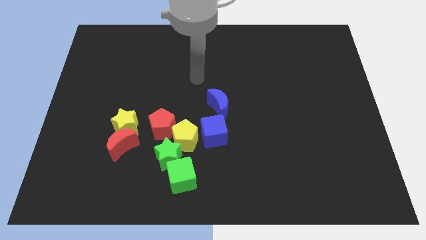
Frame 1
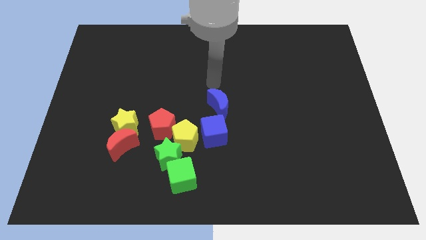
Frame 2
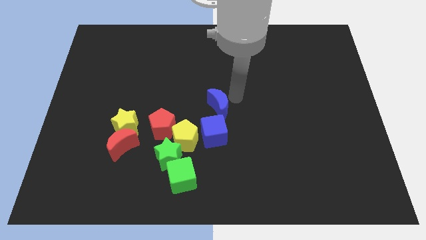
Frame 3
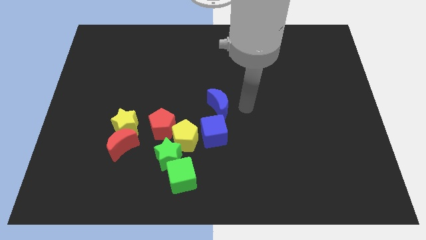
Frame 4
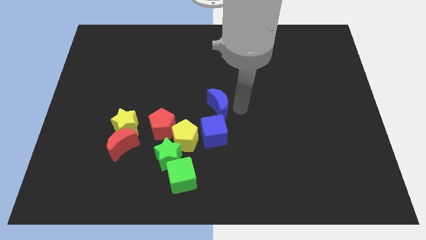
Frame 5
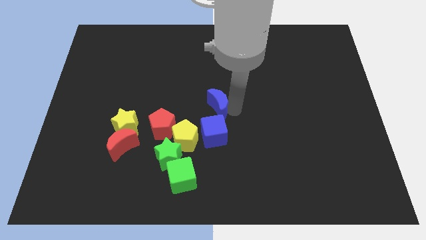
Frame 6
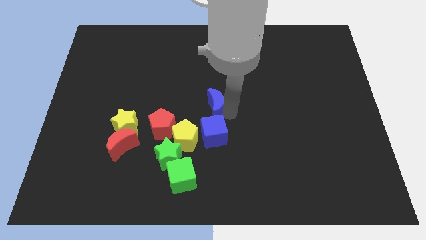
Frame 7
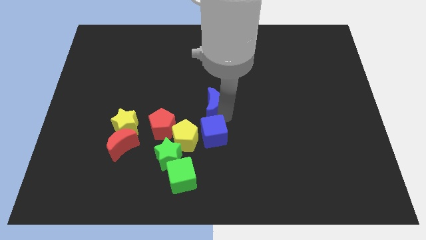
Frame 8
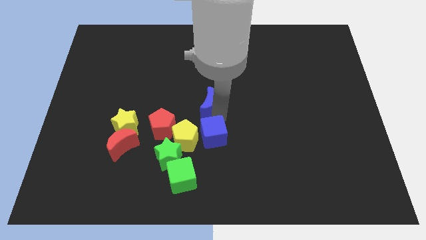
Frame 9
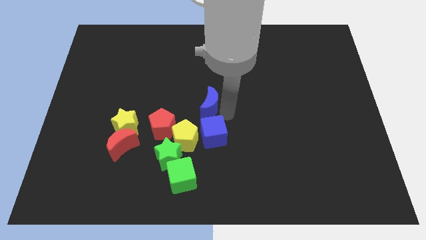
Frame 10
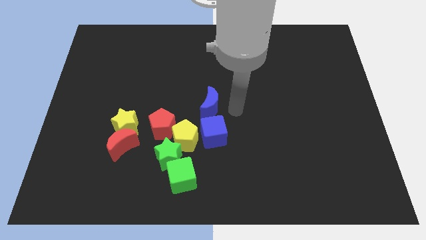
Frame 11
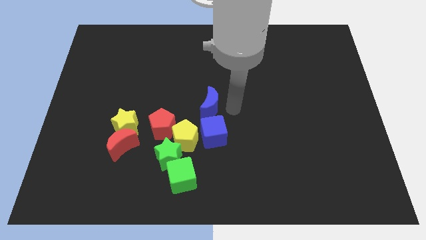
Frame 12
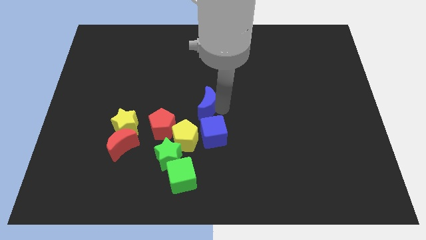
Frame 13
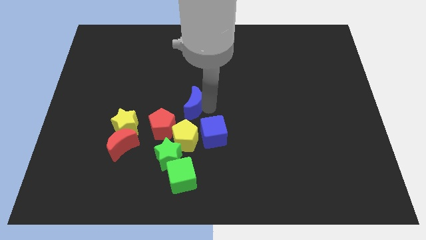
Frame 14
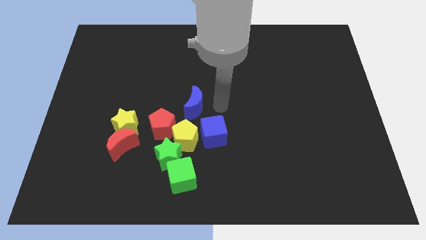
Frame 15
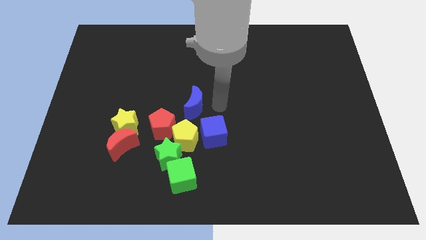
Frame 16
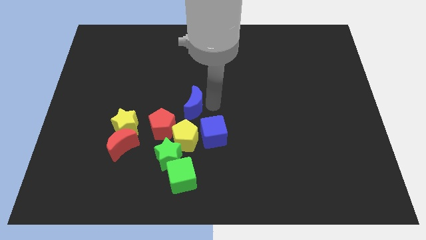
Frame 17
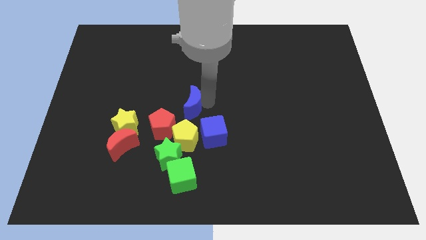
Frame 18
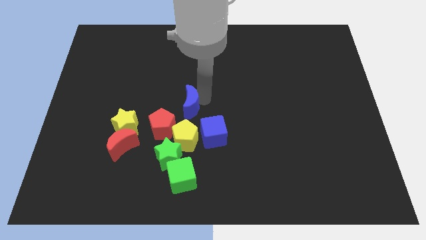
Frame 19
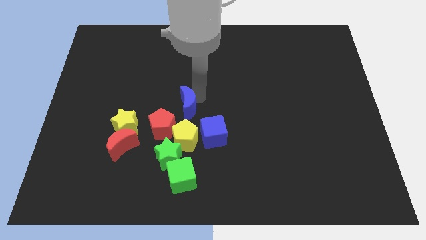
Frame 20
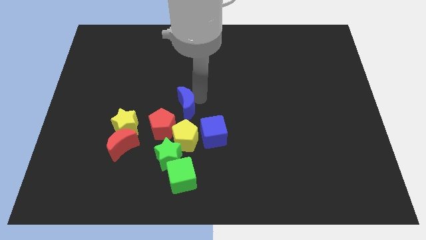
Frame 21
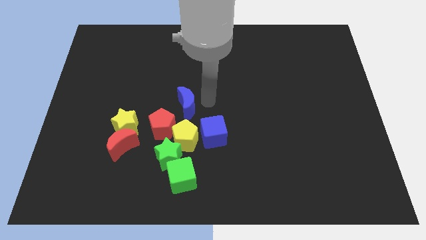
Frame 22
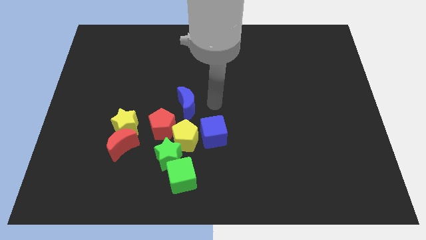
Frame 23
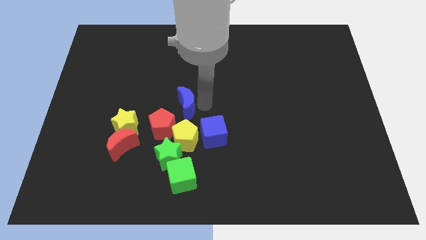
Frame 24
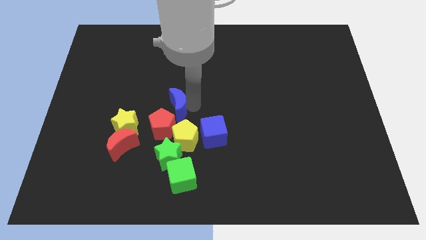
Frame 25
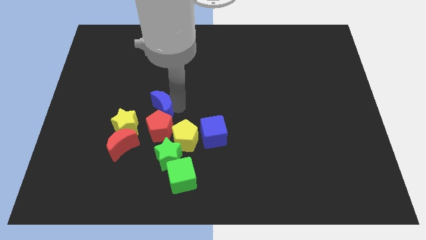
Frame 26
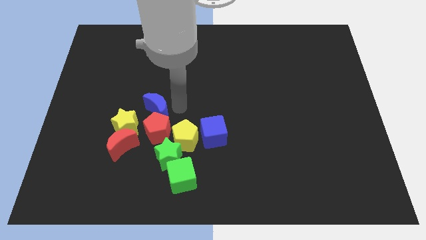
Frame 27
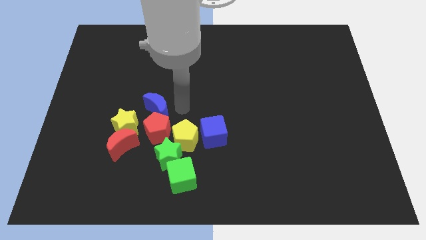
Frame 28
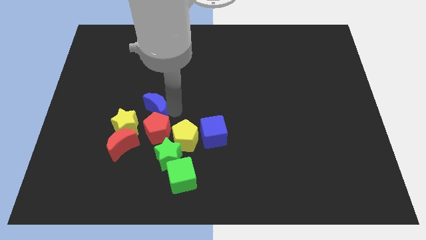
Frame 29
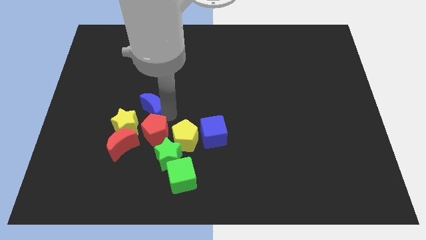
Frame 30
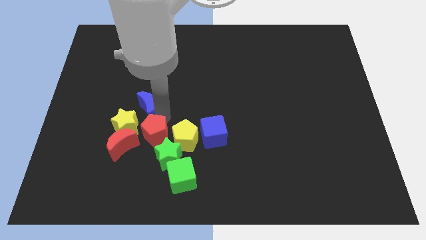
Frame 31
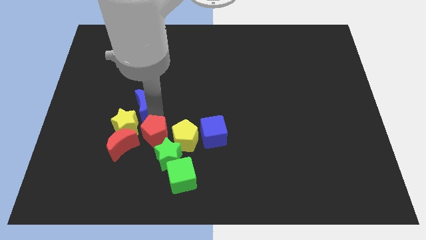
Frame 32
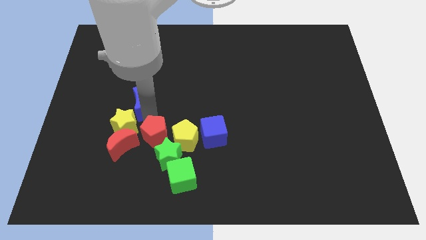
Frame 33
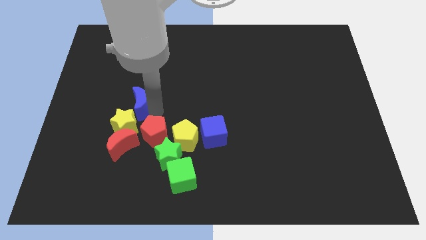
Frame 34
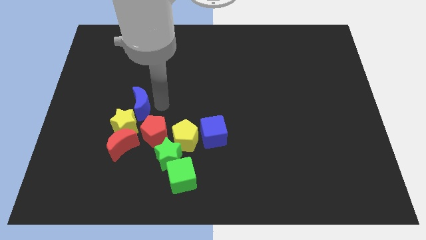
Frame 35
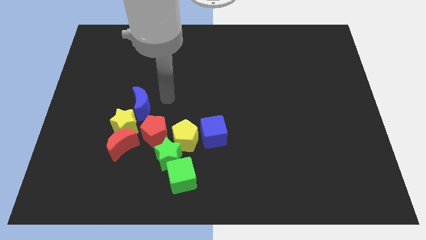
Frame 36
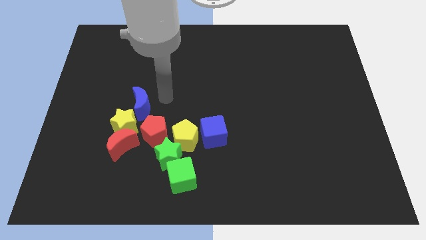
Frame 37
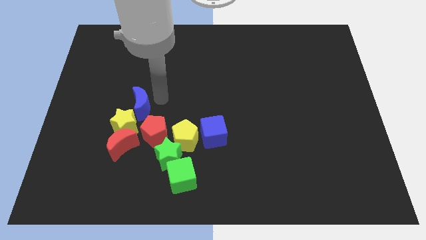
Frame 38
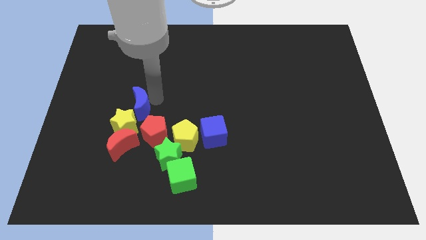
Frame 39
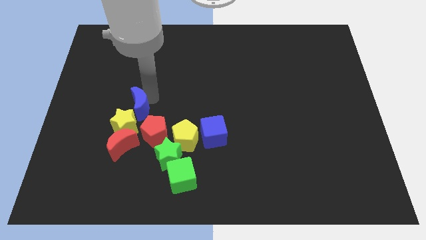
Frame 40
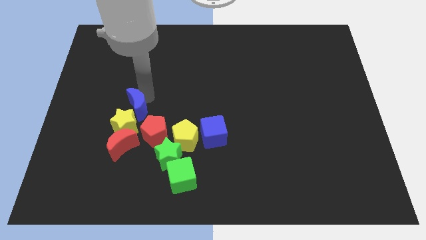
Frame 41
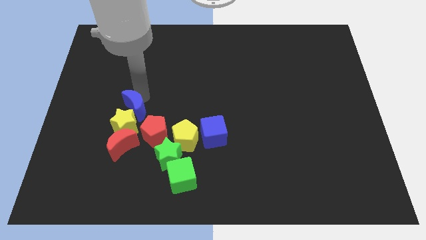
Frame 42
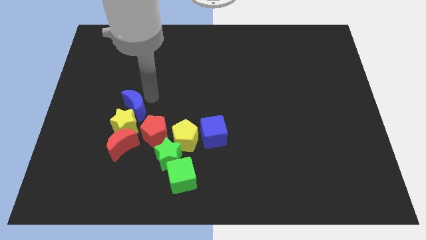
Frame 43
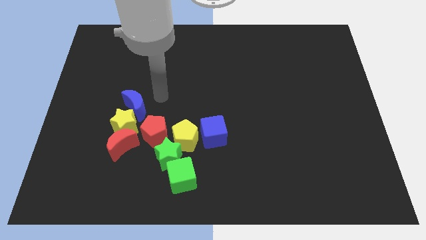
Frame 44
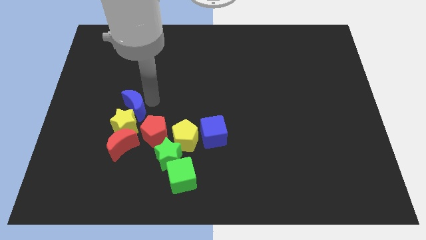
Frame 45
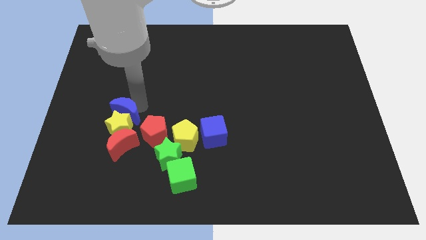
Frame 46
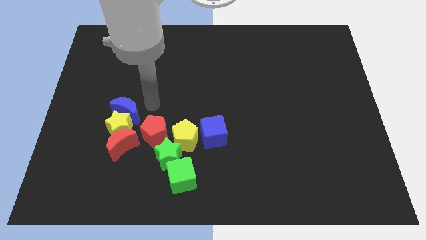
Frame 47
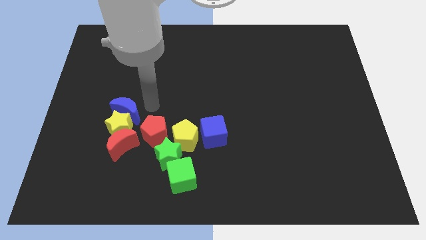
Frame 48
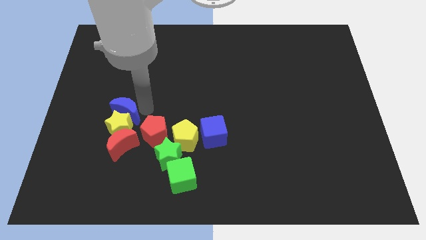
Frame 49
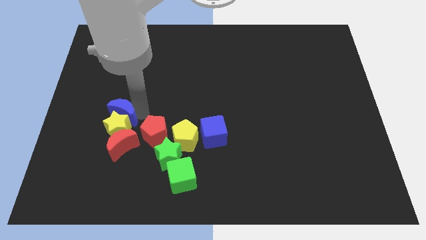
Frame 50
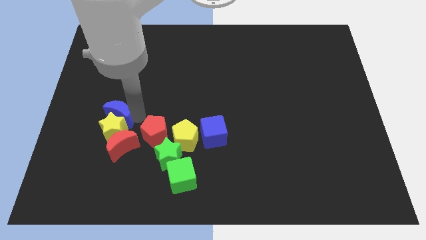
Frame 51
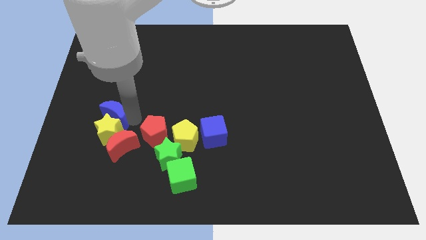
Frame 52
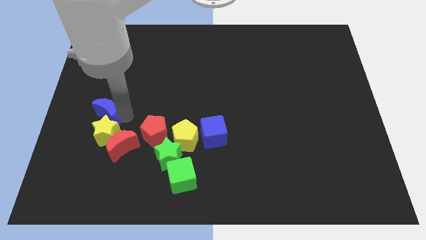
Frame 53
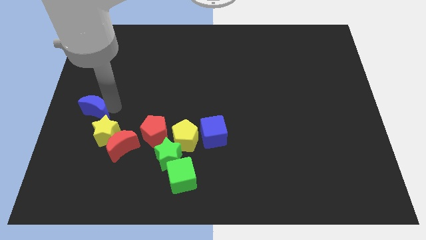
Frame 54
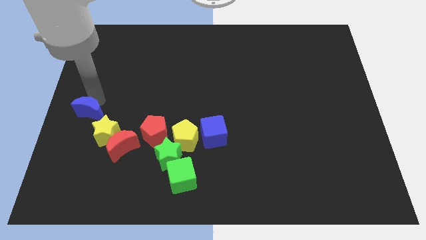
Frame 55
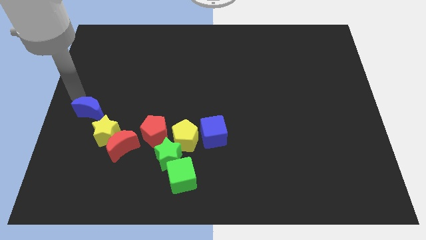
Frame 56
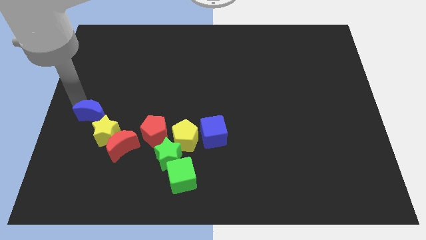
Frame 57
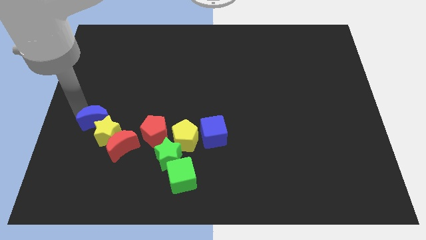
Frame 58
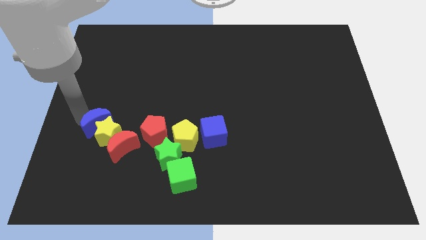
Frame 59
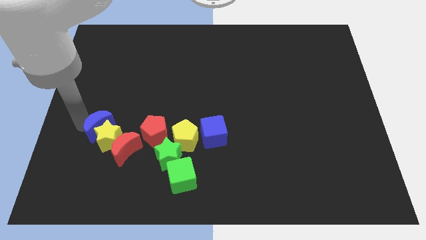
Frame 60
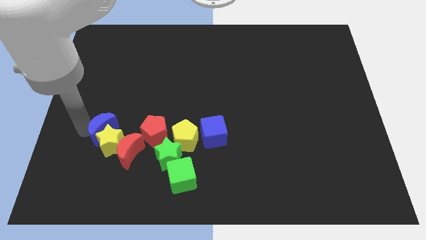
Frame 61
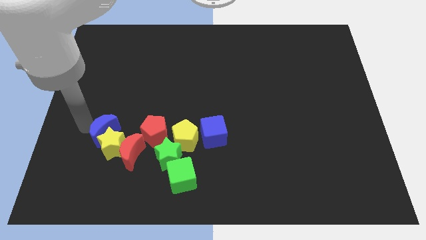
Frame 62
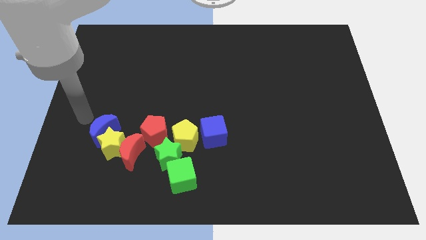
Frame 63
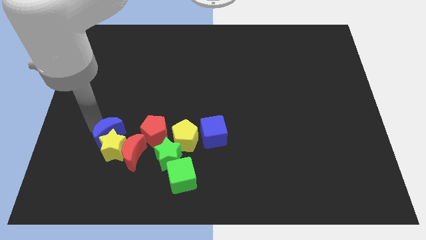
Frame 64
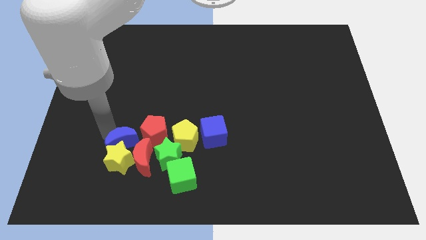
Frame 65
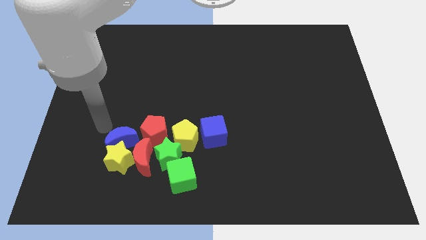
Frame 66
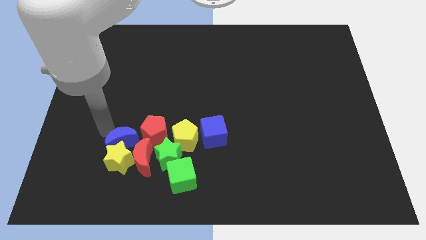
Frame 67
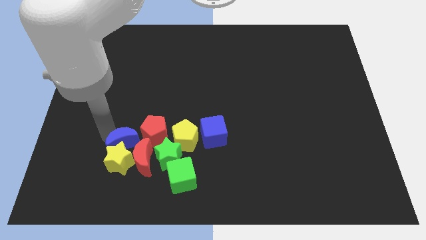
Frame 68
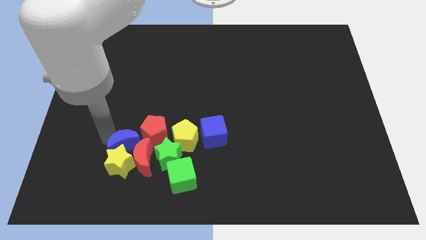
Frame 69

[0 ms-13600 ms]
move the blue moon towards the red moon

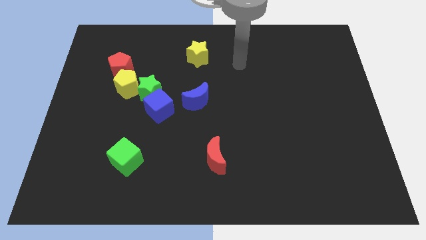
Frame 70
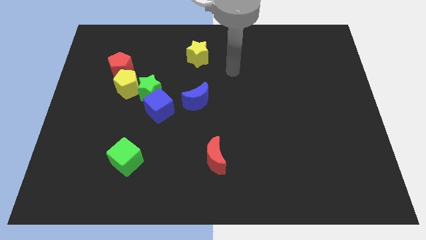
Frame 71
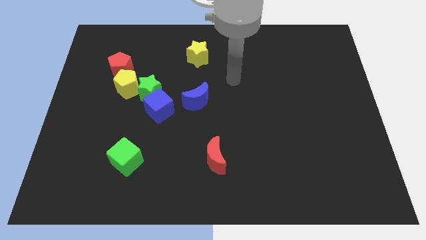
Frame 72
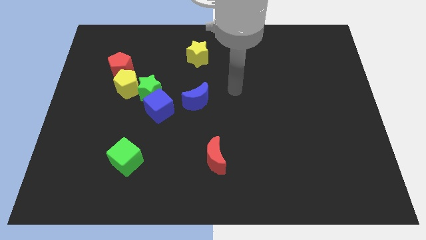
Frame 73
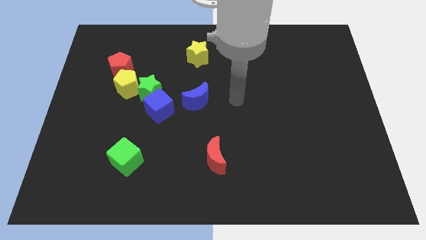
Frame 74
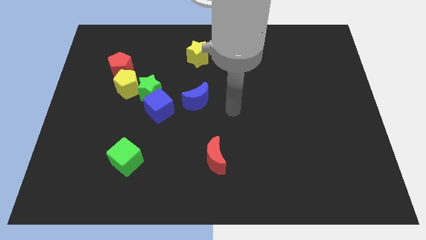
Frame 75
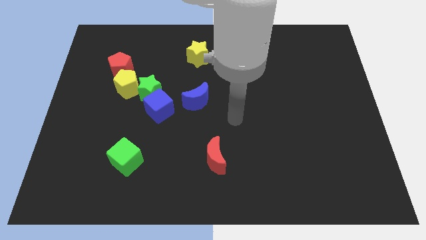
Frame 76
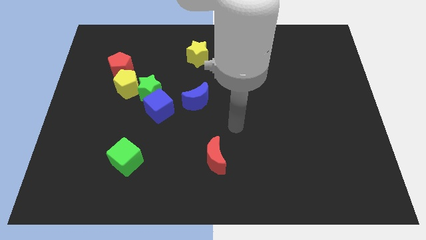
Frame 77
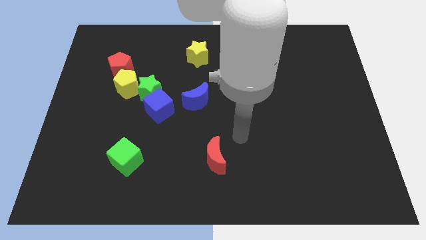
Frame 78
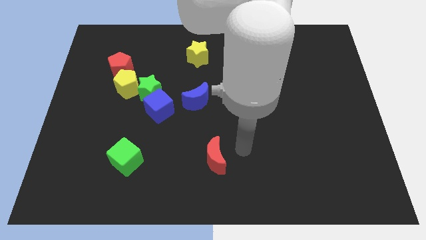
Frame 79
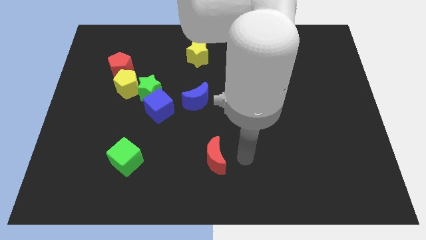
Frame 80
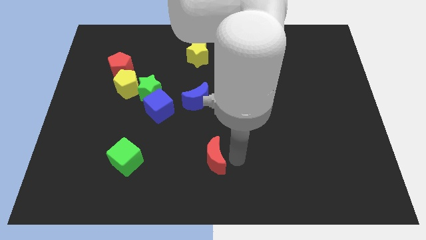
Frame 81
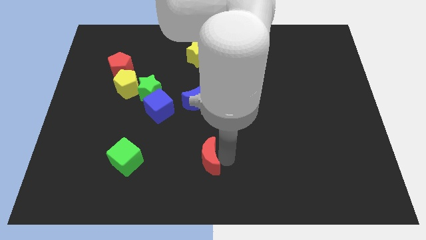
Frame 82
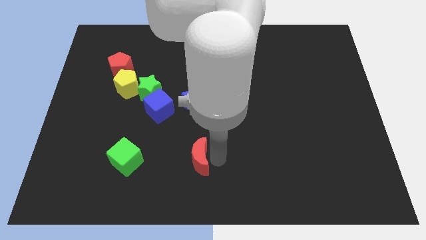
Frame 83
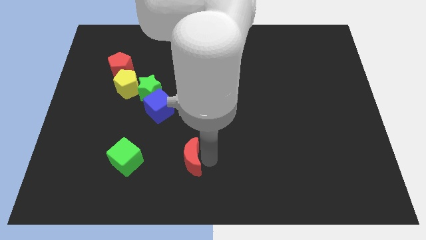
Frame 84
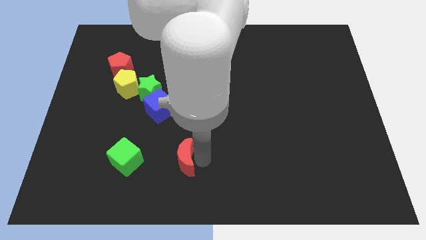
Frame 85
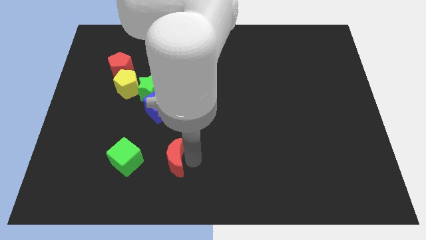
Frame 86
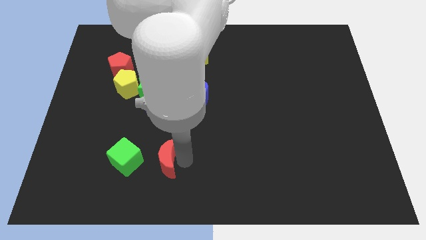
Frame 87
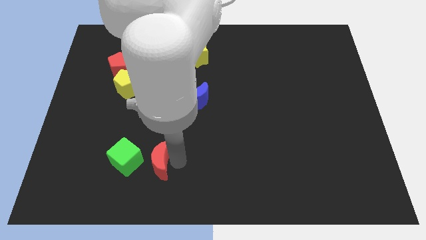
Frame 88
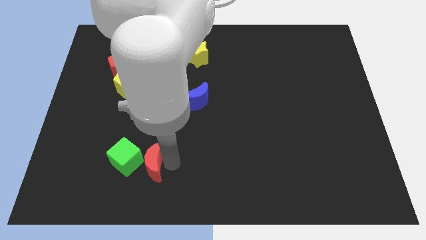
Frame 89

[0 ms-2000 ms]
put the red moon to the green cube
